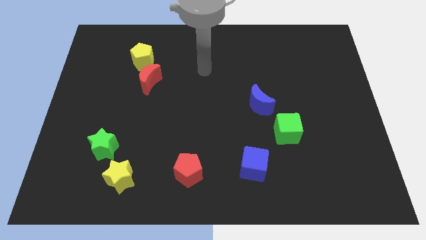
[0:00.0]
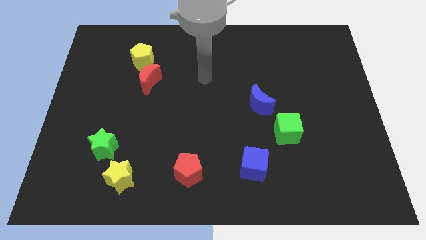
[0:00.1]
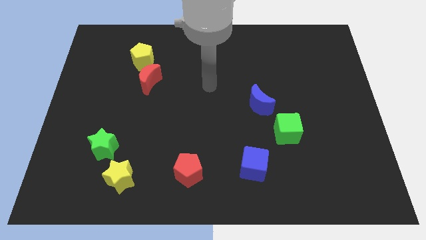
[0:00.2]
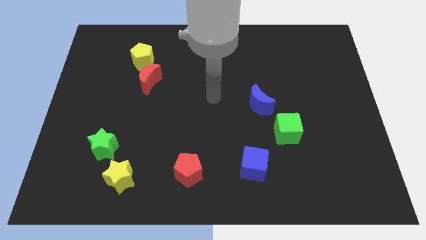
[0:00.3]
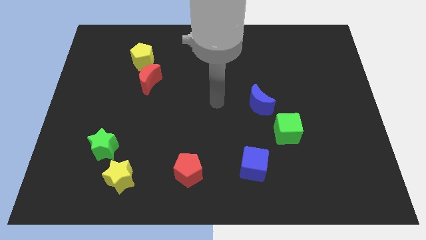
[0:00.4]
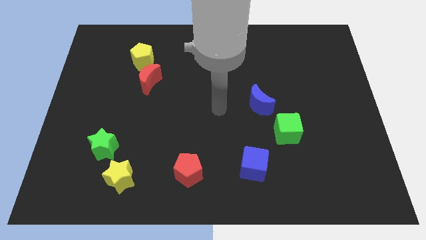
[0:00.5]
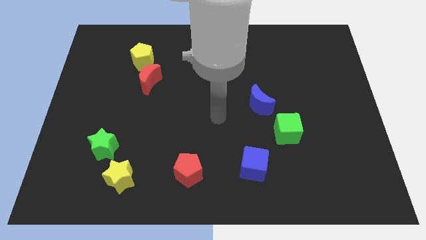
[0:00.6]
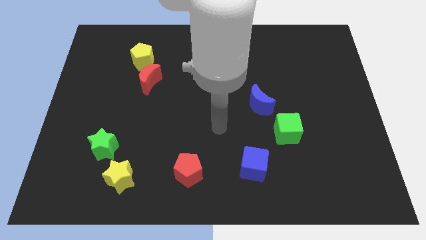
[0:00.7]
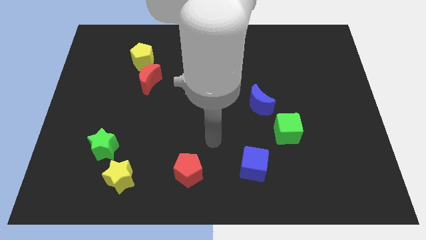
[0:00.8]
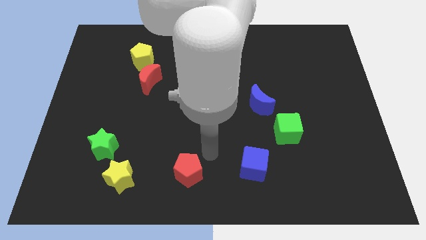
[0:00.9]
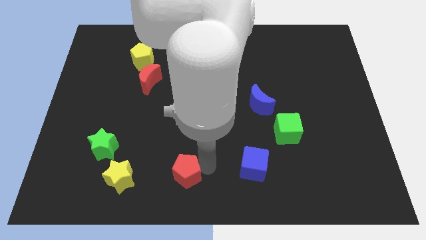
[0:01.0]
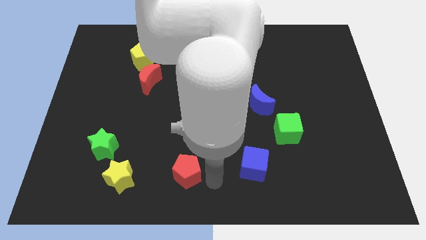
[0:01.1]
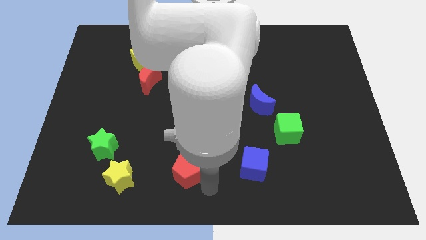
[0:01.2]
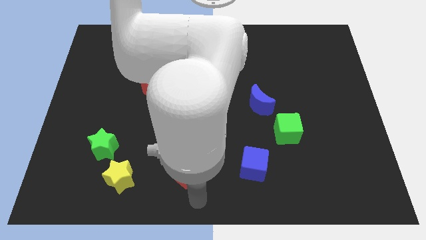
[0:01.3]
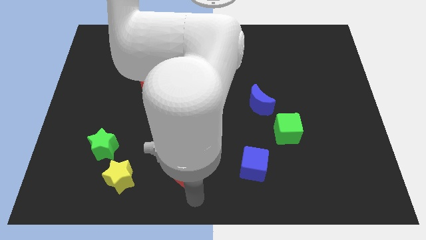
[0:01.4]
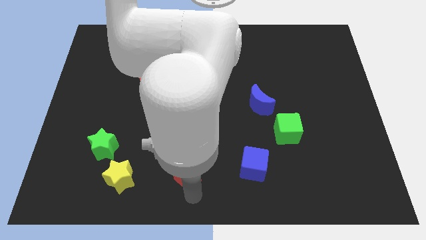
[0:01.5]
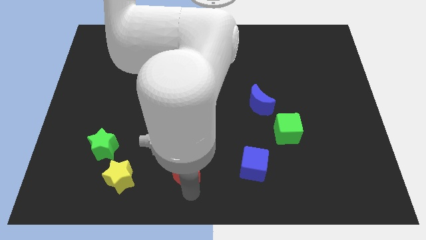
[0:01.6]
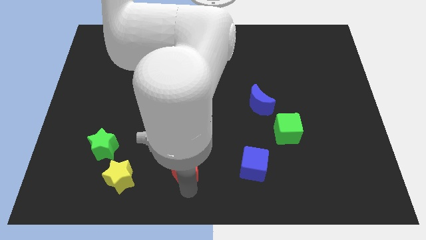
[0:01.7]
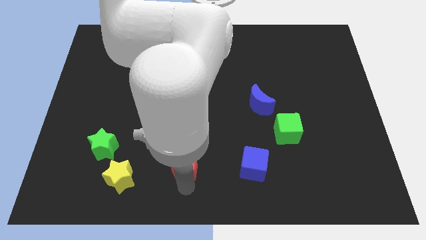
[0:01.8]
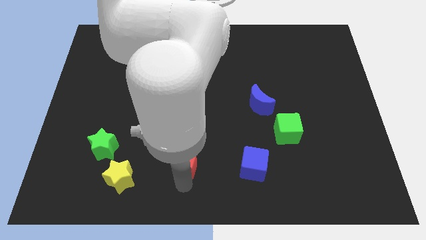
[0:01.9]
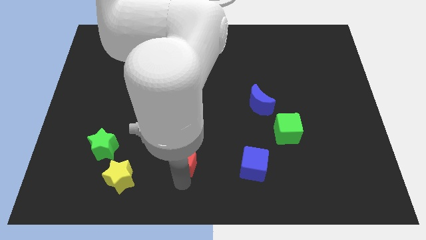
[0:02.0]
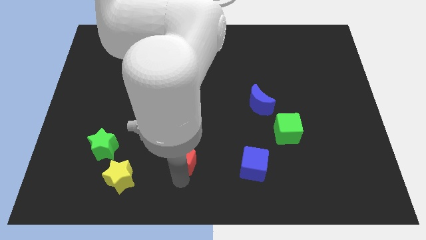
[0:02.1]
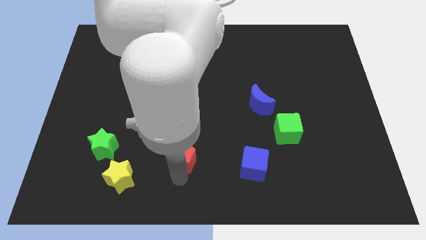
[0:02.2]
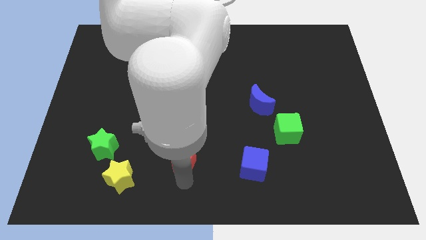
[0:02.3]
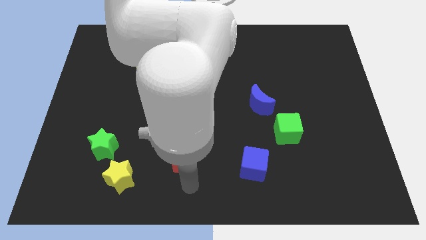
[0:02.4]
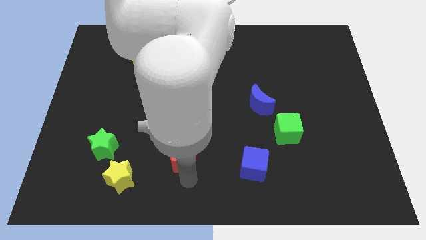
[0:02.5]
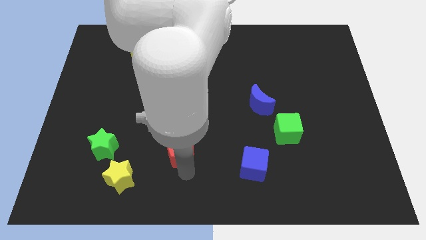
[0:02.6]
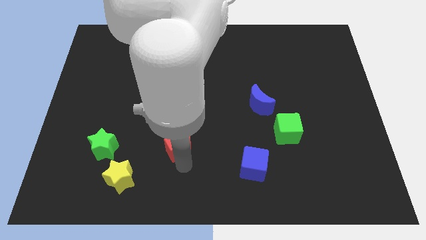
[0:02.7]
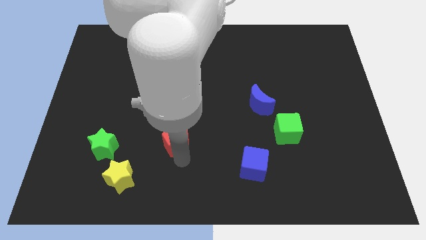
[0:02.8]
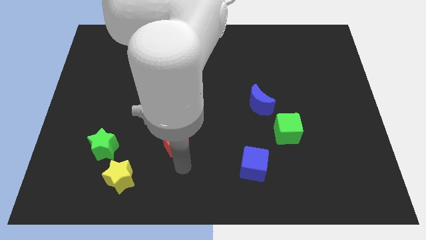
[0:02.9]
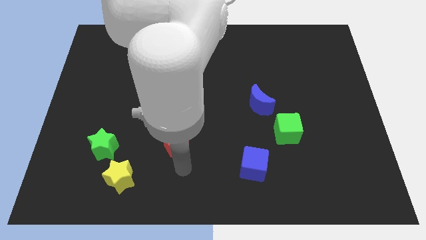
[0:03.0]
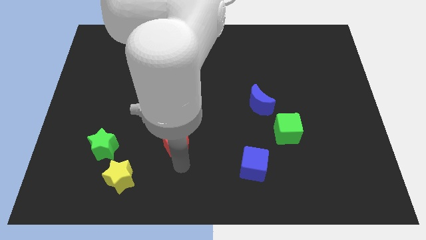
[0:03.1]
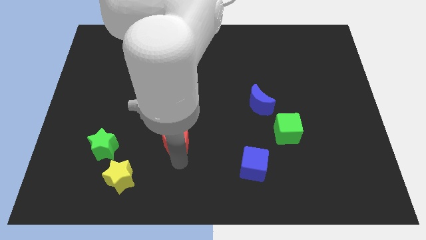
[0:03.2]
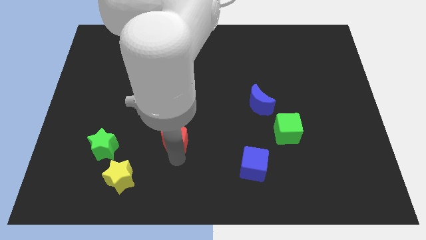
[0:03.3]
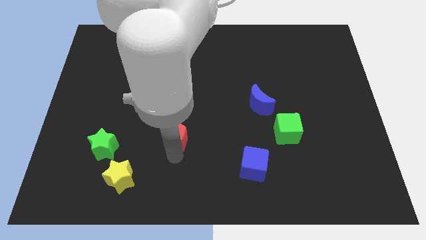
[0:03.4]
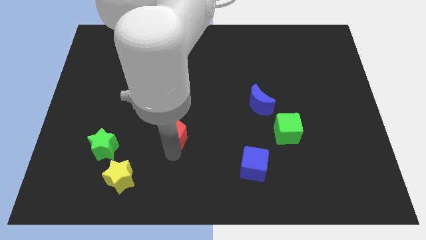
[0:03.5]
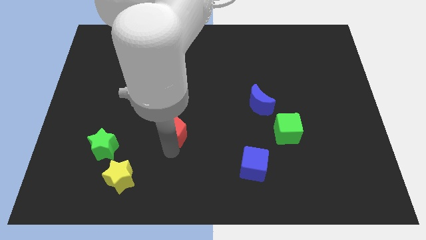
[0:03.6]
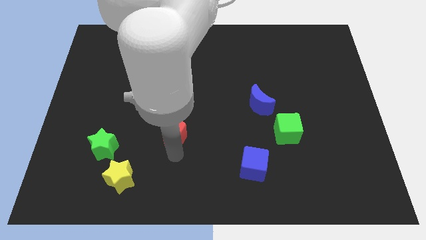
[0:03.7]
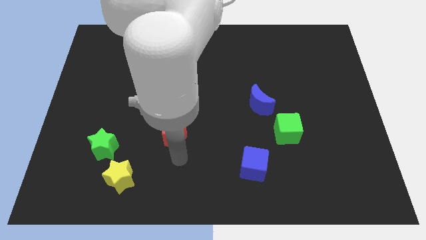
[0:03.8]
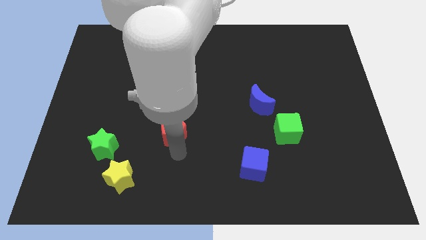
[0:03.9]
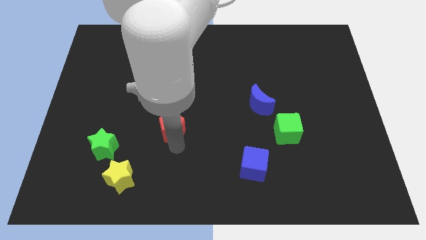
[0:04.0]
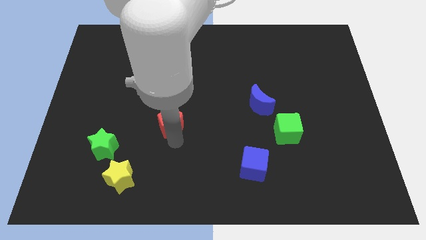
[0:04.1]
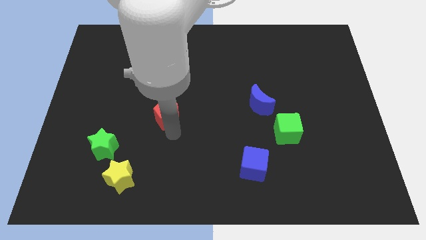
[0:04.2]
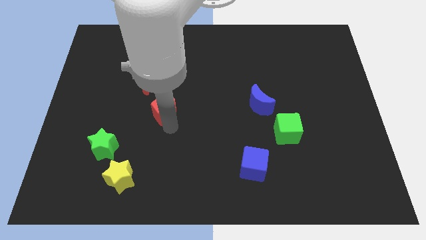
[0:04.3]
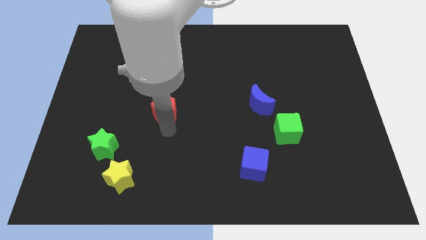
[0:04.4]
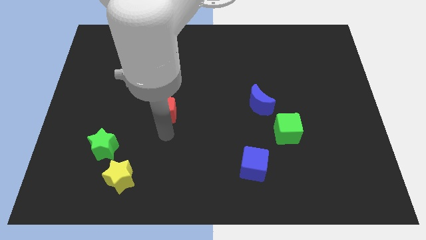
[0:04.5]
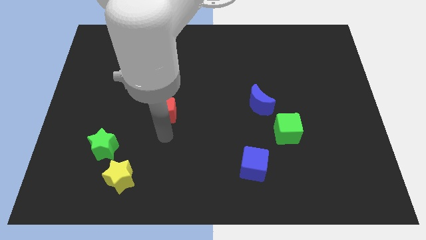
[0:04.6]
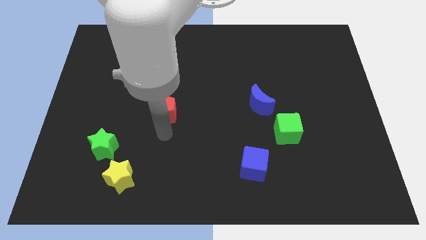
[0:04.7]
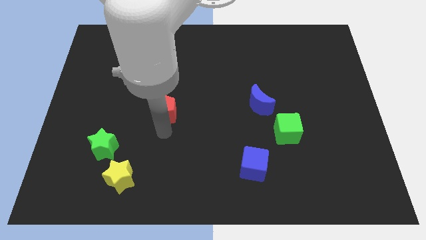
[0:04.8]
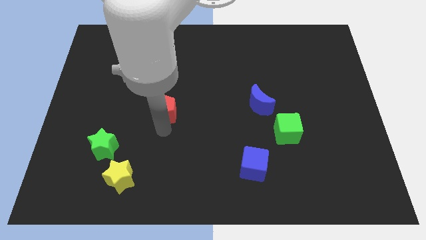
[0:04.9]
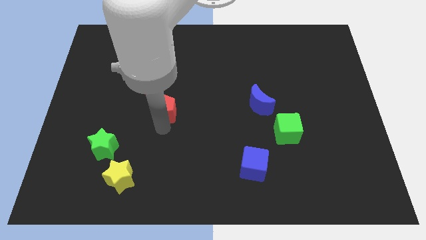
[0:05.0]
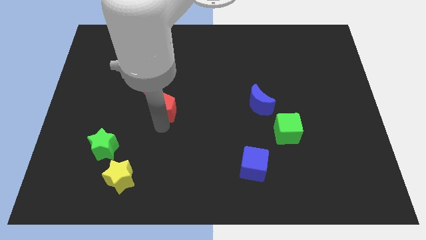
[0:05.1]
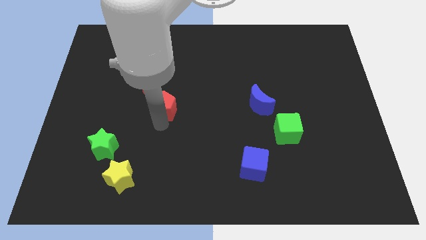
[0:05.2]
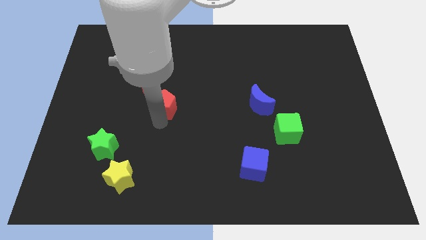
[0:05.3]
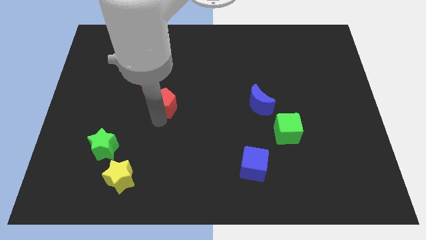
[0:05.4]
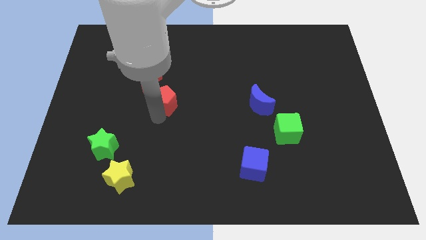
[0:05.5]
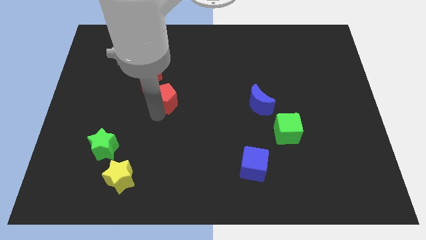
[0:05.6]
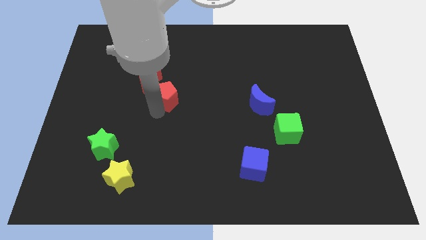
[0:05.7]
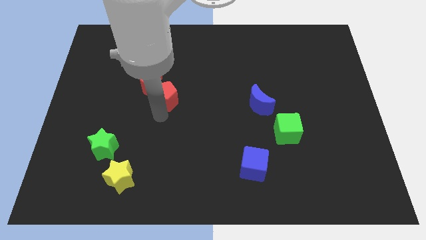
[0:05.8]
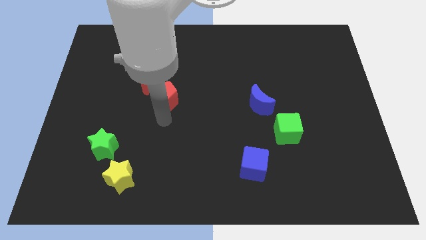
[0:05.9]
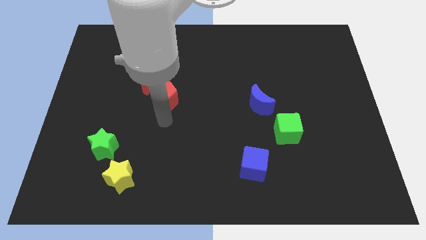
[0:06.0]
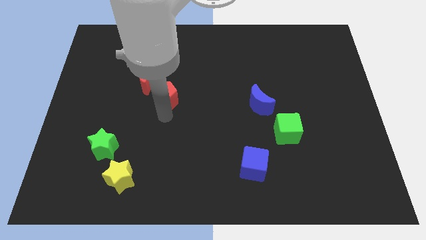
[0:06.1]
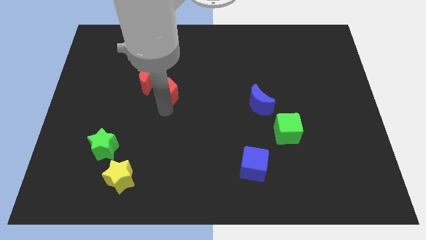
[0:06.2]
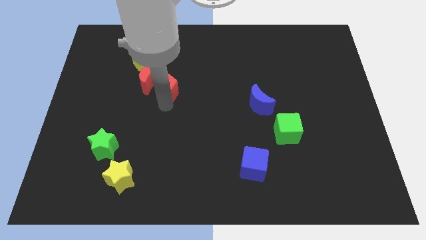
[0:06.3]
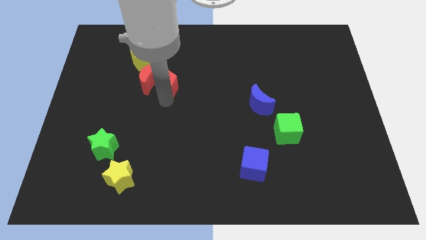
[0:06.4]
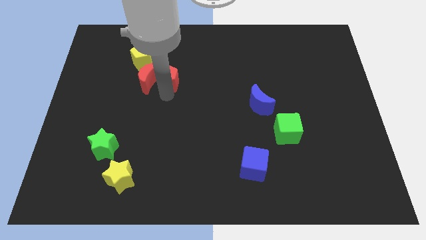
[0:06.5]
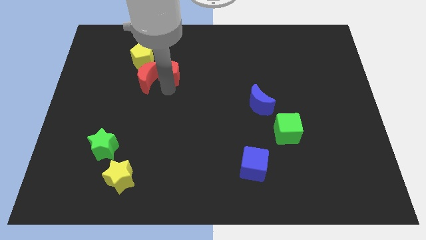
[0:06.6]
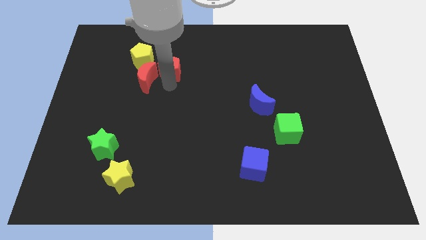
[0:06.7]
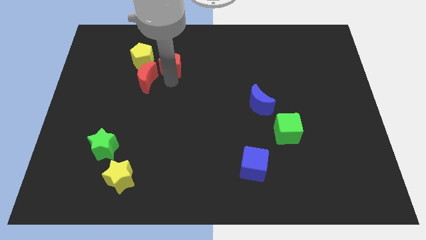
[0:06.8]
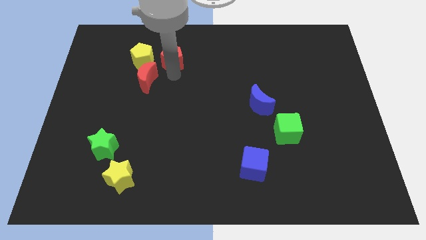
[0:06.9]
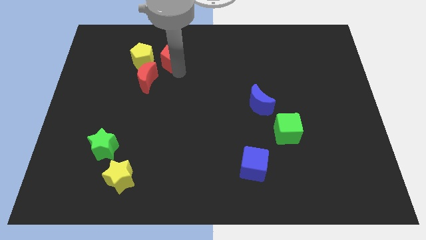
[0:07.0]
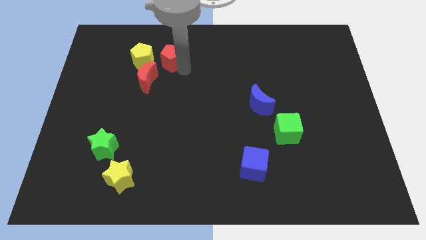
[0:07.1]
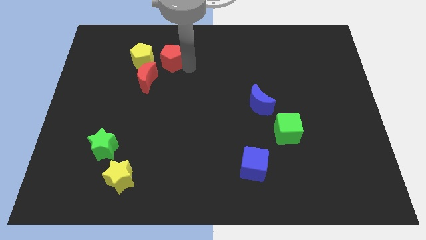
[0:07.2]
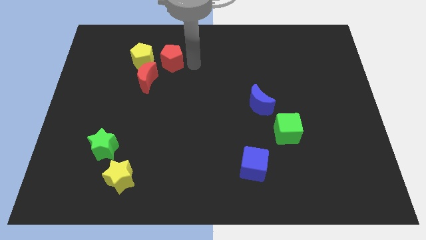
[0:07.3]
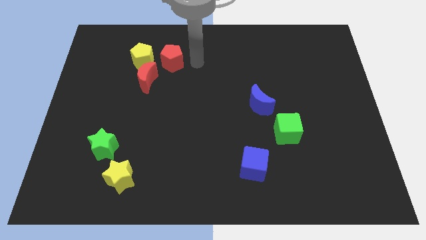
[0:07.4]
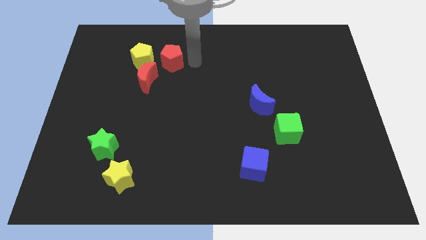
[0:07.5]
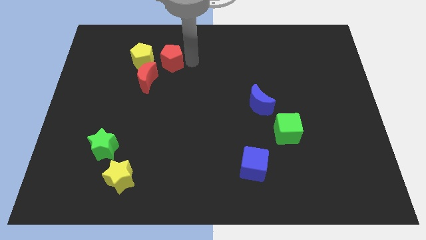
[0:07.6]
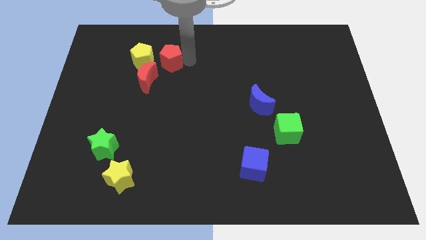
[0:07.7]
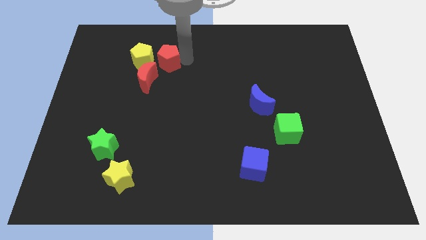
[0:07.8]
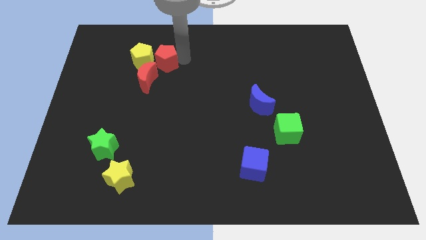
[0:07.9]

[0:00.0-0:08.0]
push the red pentagon towards the yellow pentagon
